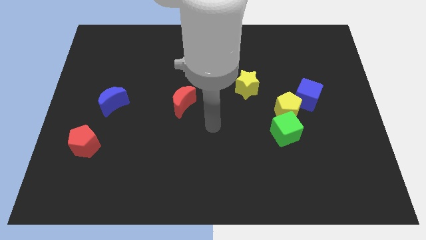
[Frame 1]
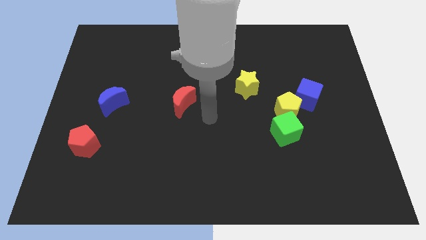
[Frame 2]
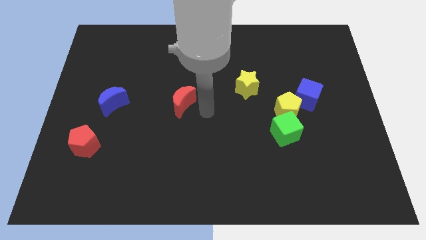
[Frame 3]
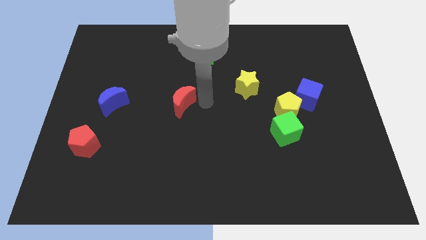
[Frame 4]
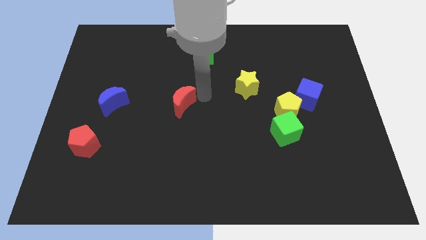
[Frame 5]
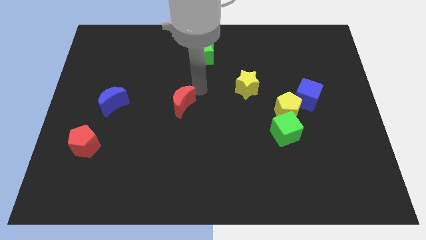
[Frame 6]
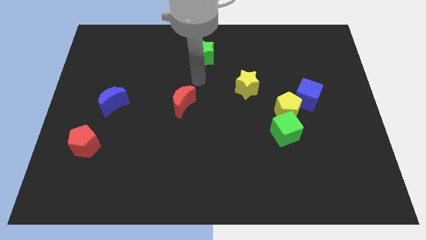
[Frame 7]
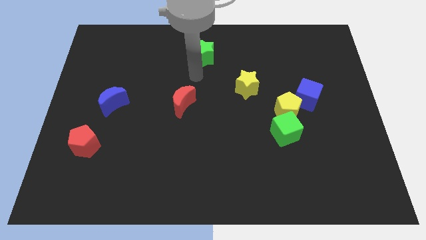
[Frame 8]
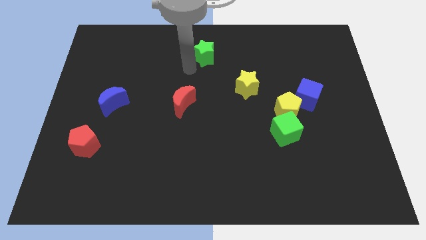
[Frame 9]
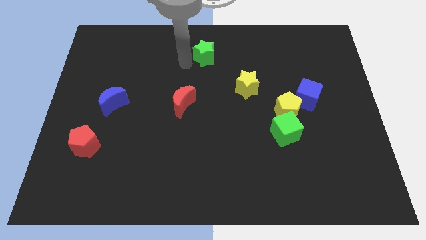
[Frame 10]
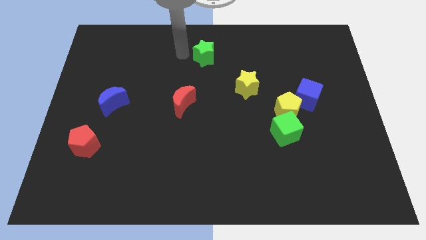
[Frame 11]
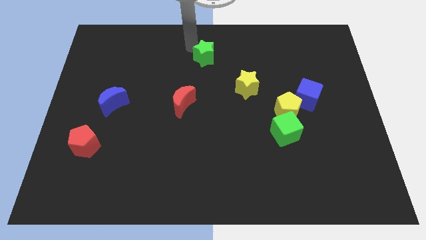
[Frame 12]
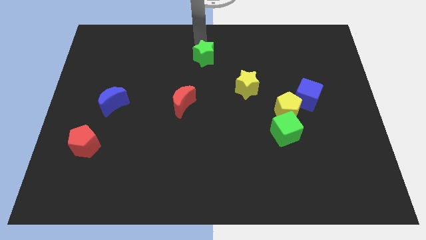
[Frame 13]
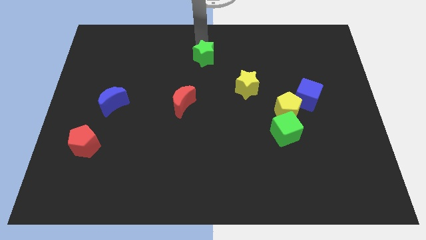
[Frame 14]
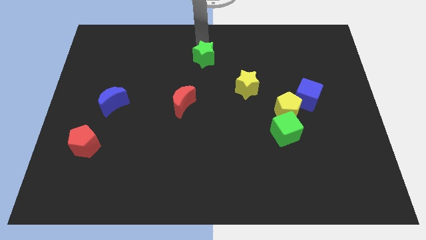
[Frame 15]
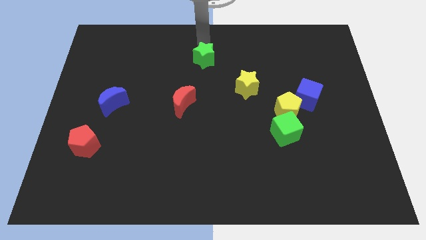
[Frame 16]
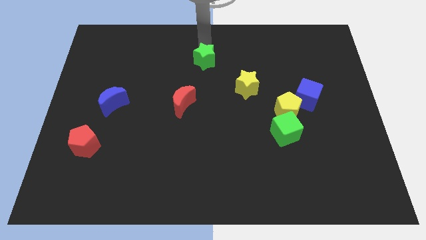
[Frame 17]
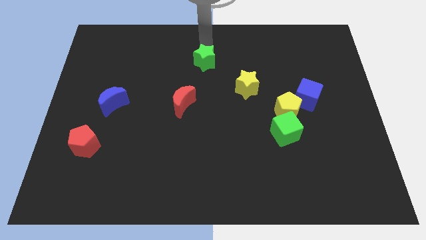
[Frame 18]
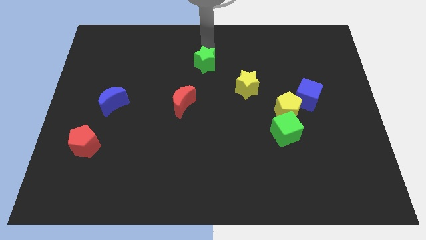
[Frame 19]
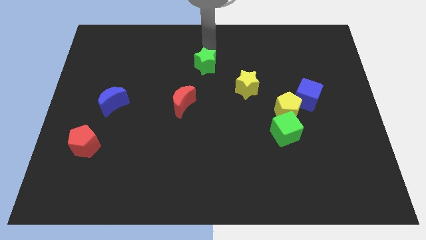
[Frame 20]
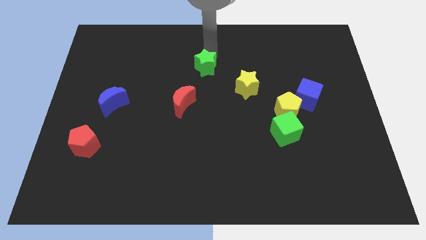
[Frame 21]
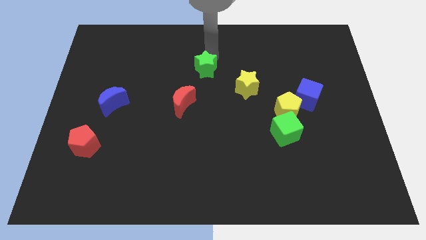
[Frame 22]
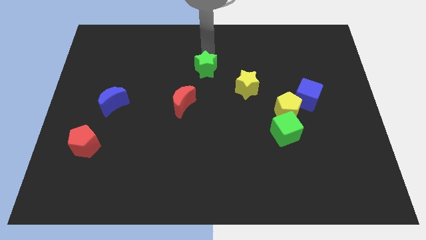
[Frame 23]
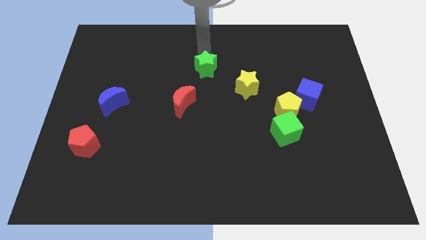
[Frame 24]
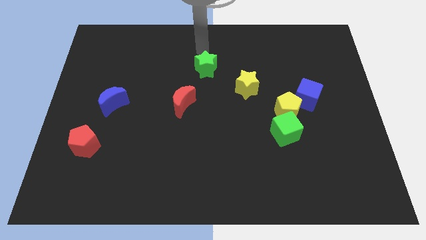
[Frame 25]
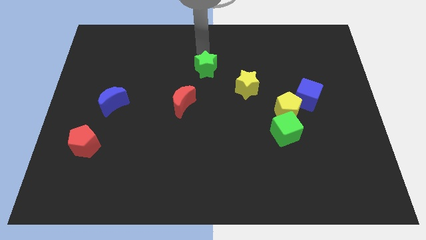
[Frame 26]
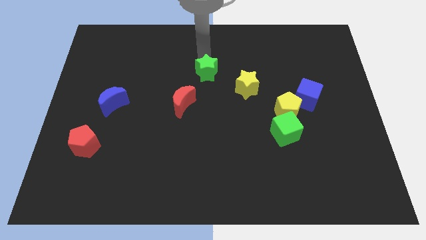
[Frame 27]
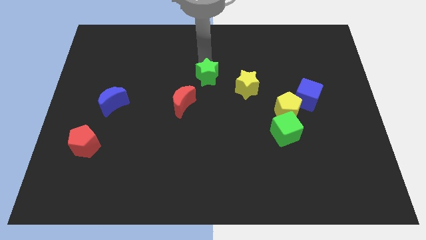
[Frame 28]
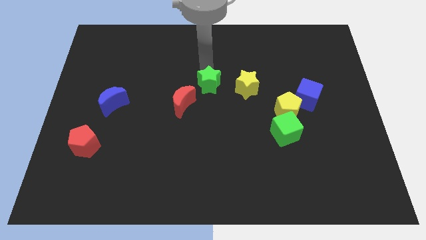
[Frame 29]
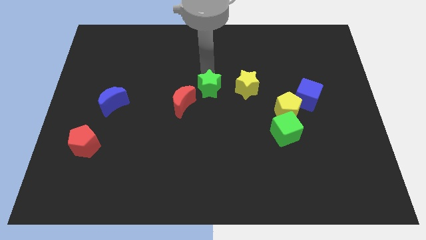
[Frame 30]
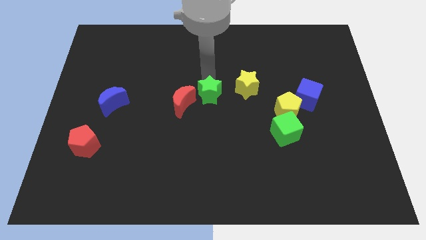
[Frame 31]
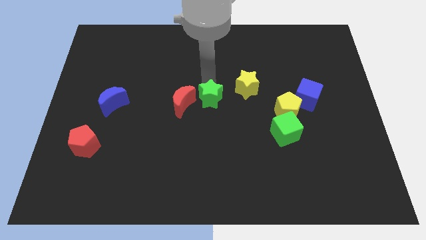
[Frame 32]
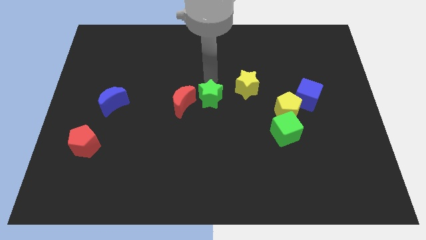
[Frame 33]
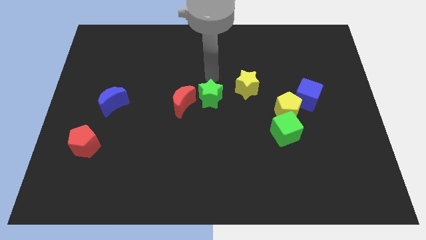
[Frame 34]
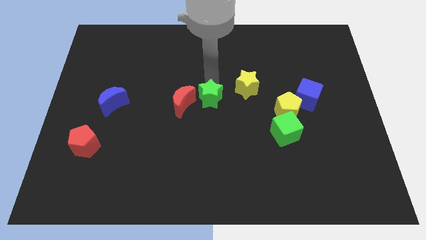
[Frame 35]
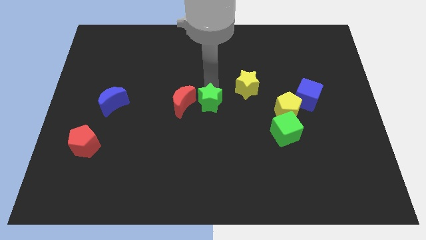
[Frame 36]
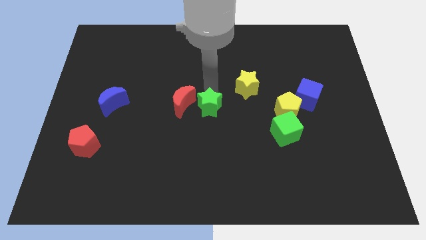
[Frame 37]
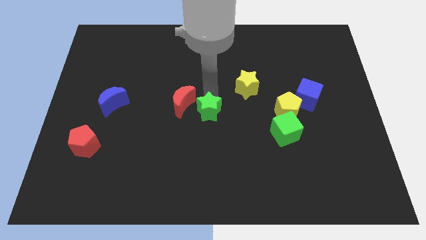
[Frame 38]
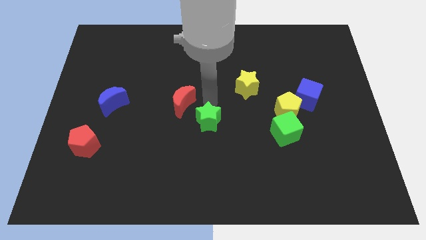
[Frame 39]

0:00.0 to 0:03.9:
push the green star downwards

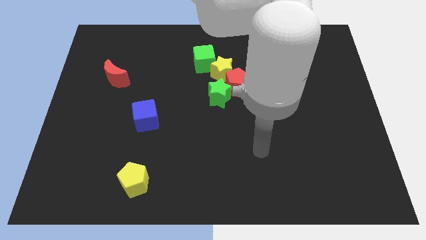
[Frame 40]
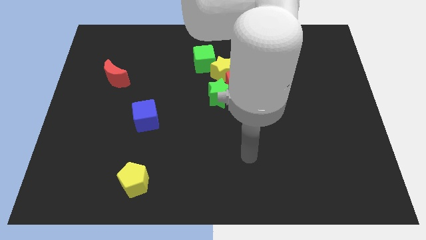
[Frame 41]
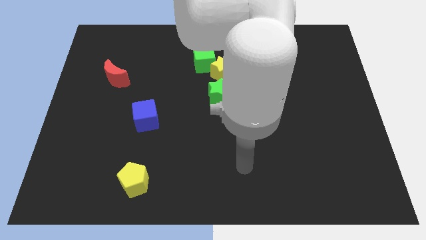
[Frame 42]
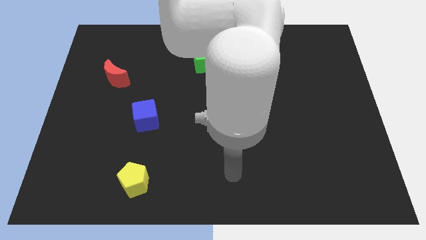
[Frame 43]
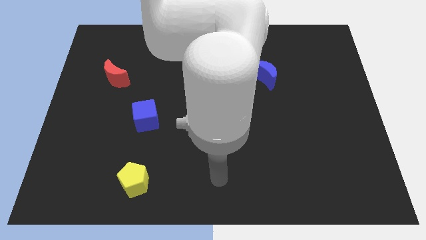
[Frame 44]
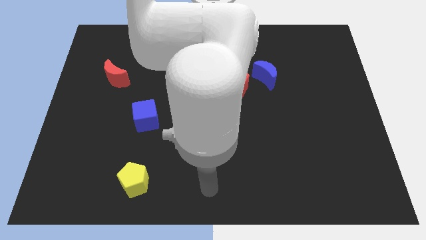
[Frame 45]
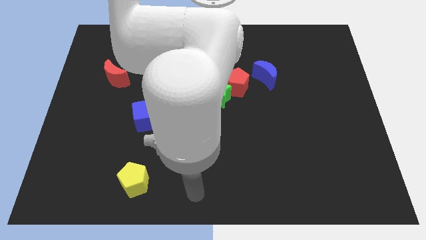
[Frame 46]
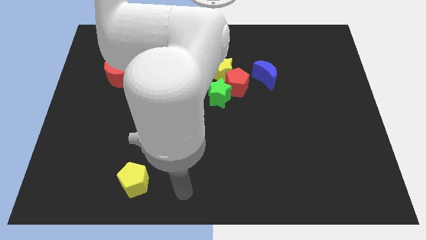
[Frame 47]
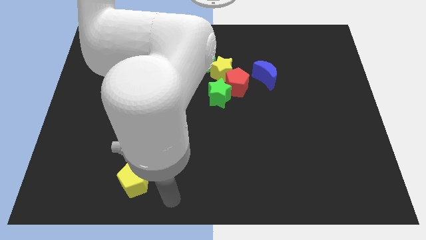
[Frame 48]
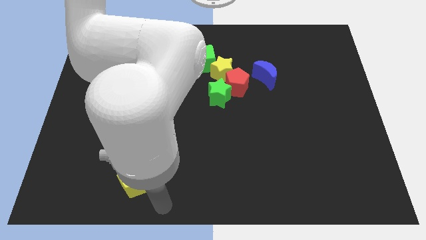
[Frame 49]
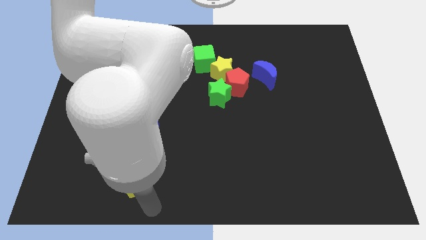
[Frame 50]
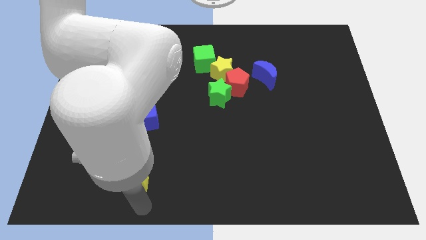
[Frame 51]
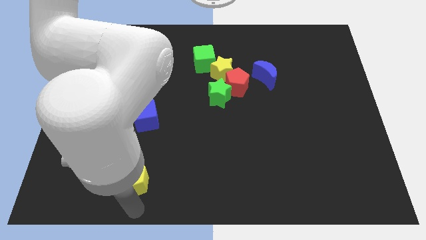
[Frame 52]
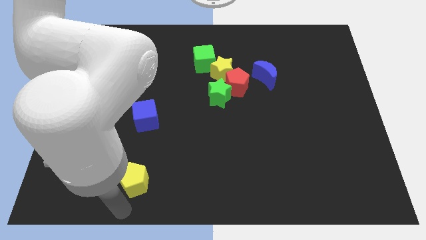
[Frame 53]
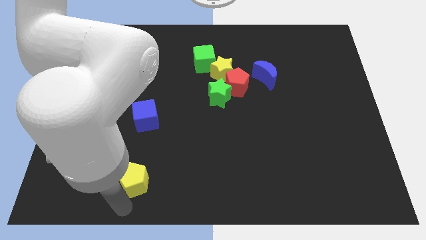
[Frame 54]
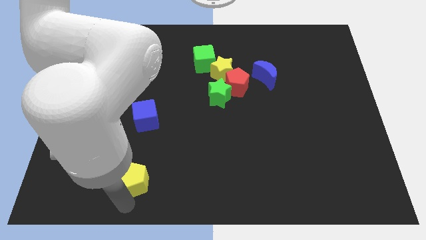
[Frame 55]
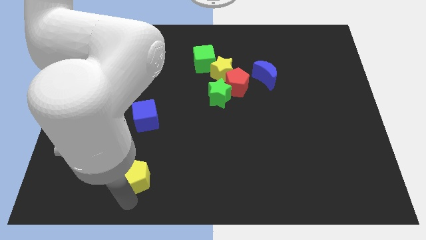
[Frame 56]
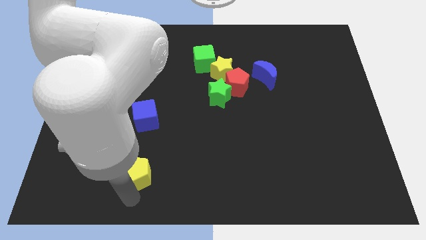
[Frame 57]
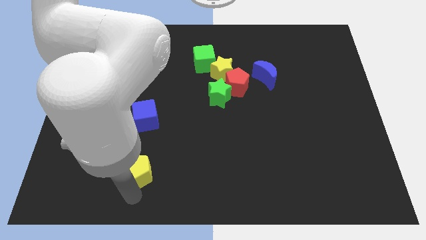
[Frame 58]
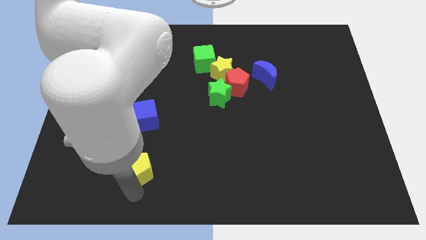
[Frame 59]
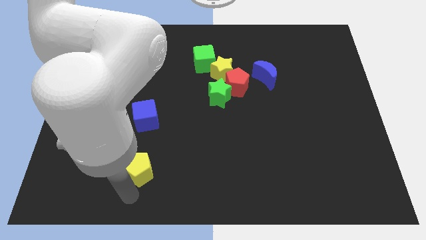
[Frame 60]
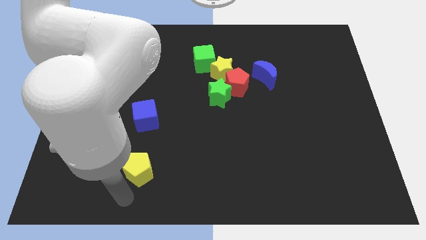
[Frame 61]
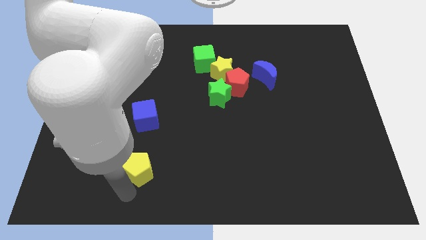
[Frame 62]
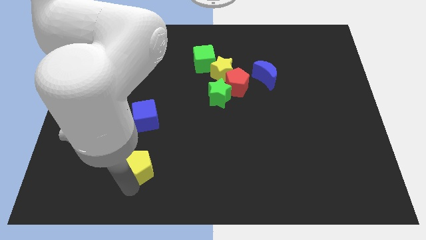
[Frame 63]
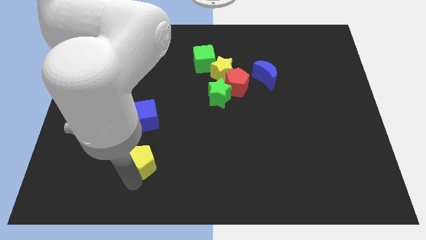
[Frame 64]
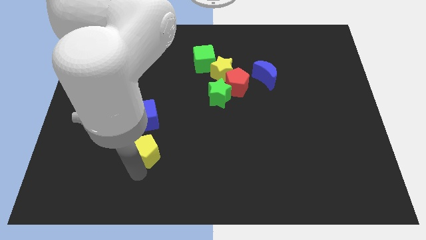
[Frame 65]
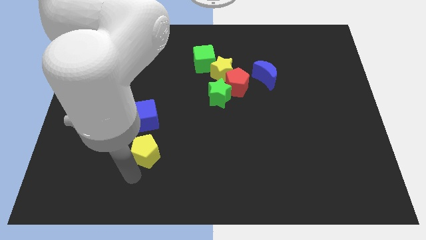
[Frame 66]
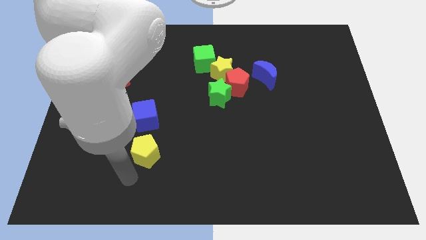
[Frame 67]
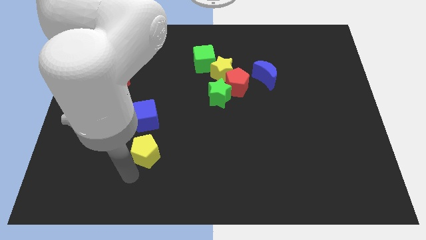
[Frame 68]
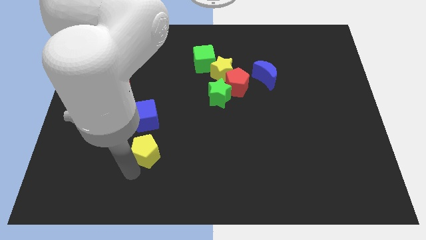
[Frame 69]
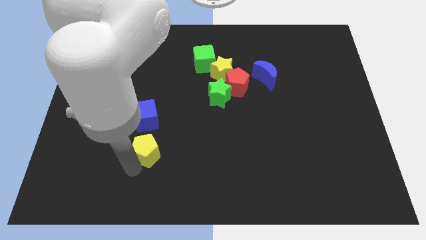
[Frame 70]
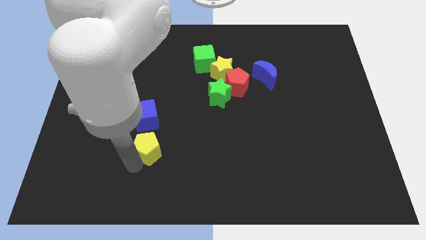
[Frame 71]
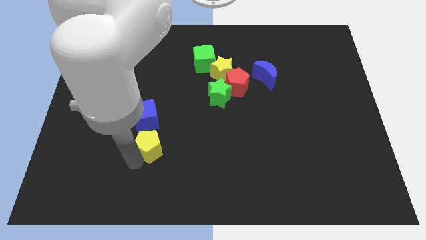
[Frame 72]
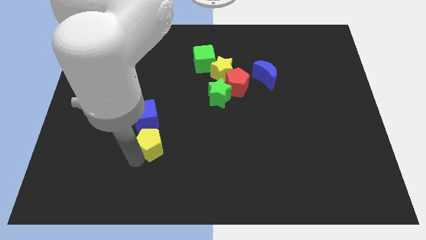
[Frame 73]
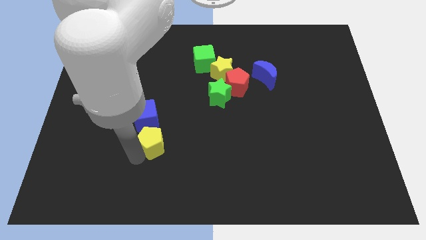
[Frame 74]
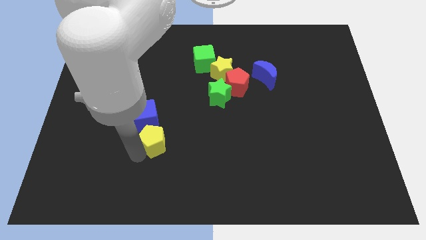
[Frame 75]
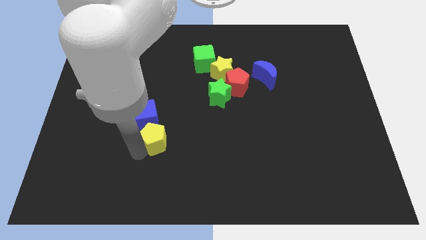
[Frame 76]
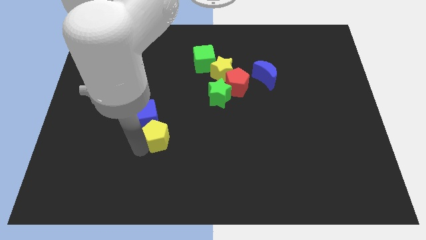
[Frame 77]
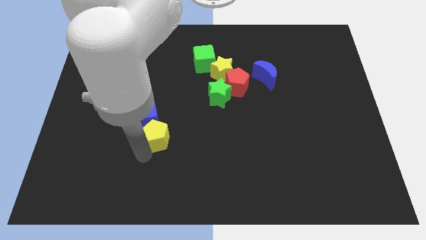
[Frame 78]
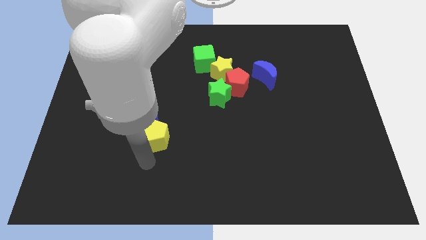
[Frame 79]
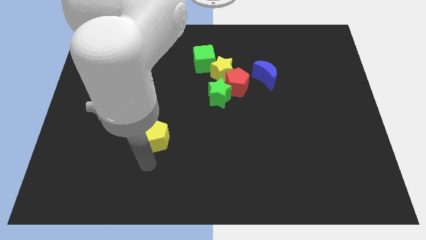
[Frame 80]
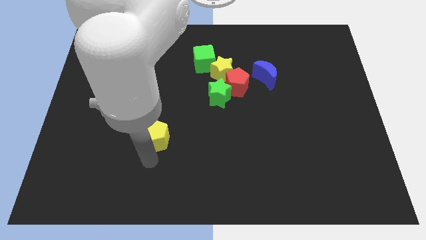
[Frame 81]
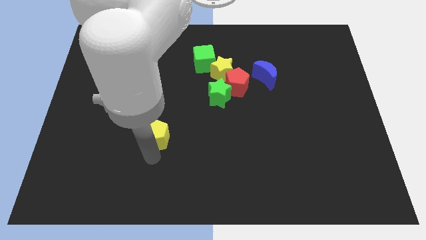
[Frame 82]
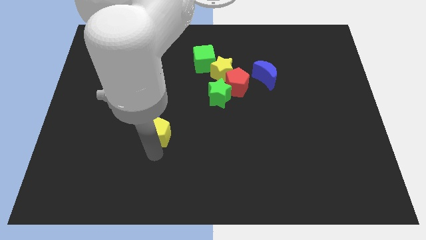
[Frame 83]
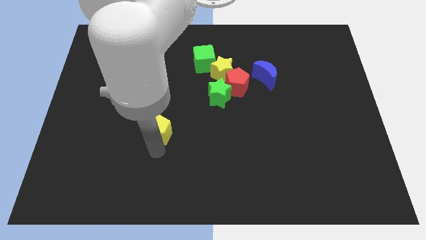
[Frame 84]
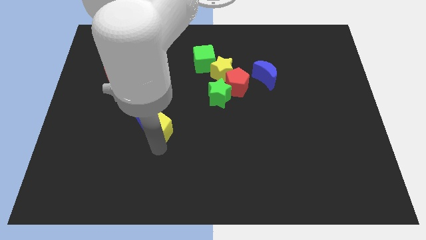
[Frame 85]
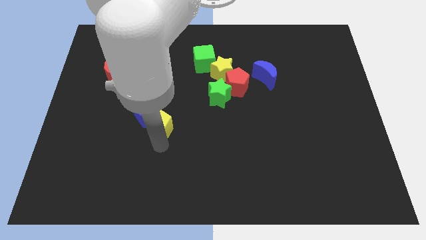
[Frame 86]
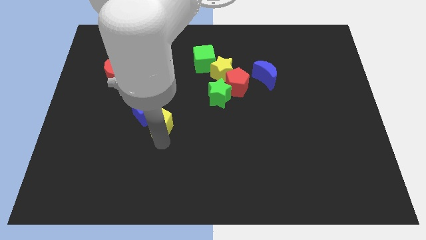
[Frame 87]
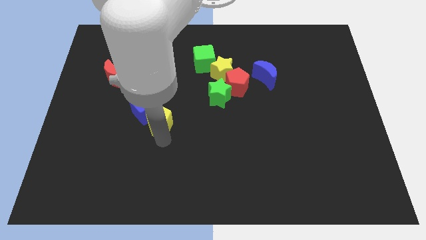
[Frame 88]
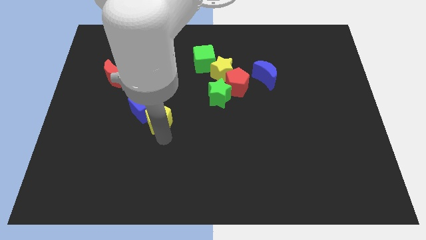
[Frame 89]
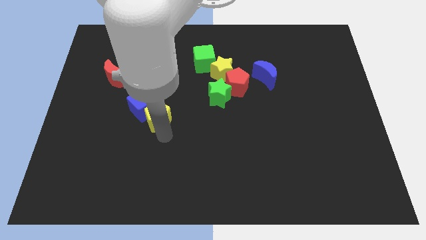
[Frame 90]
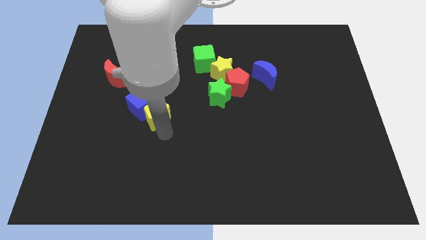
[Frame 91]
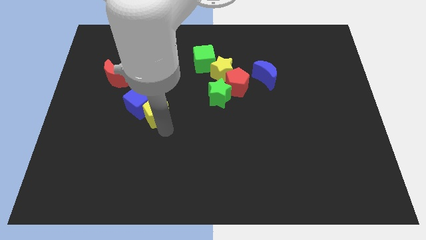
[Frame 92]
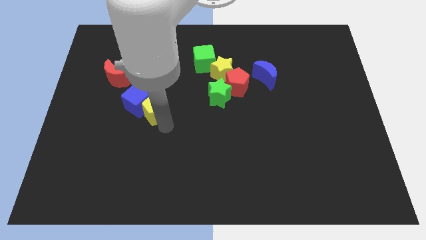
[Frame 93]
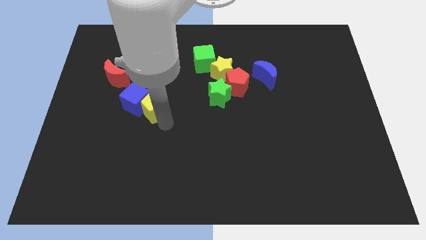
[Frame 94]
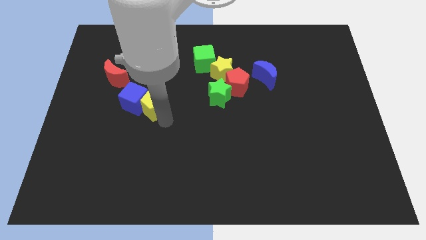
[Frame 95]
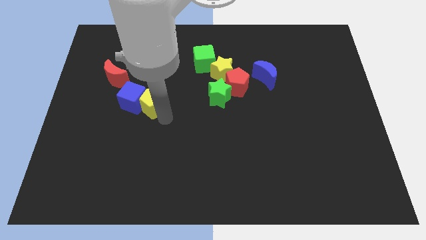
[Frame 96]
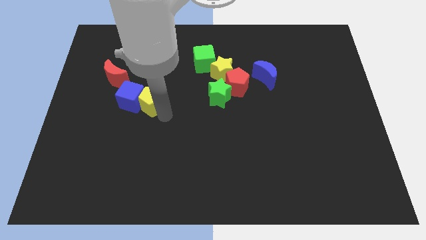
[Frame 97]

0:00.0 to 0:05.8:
slide the yellow pentagon up
